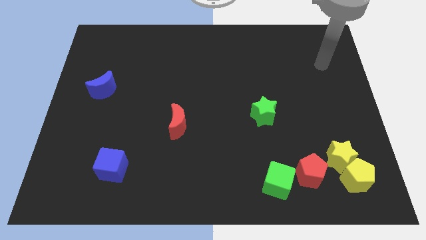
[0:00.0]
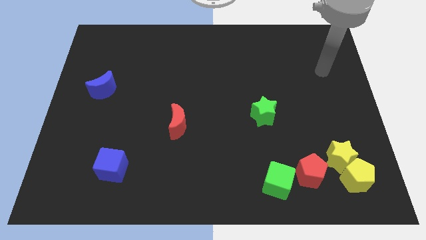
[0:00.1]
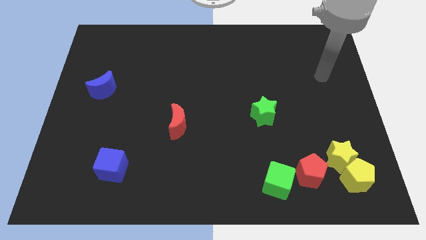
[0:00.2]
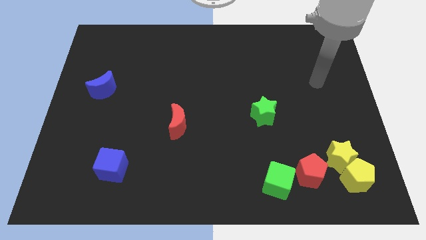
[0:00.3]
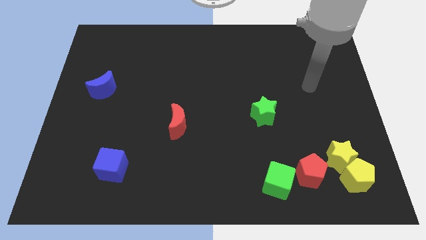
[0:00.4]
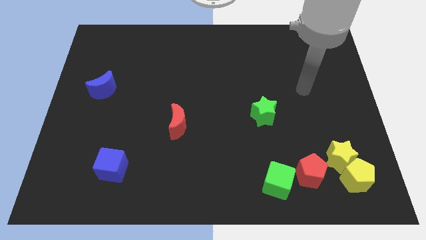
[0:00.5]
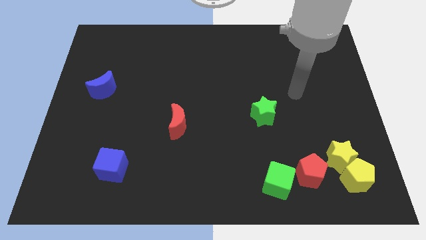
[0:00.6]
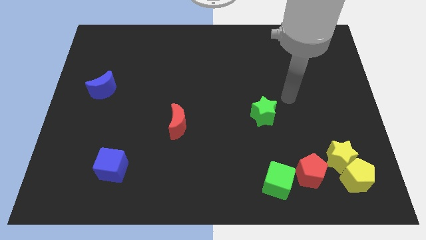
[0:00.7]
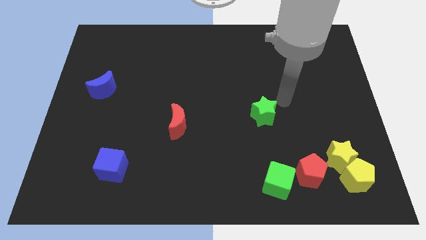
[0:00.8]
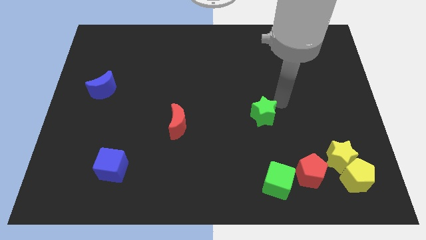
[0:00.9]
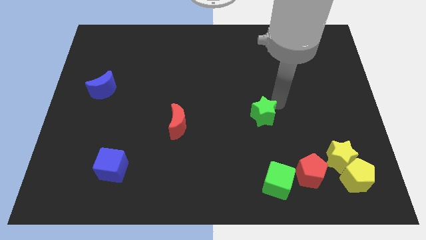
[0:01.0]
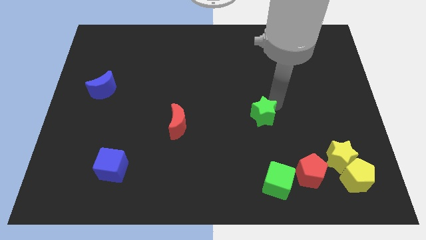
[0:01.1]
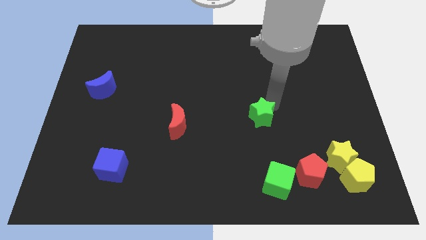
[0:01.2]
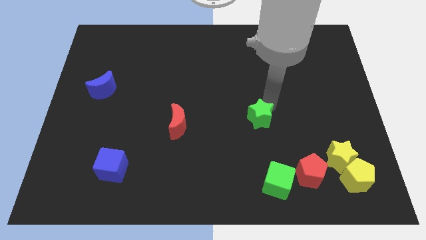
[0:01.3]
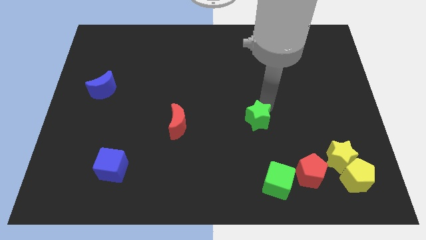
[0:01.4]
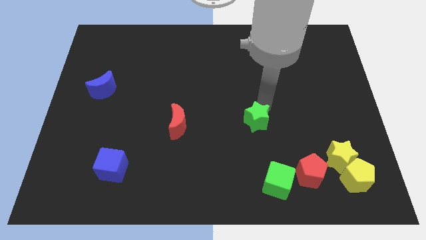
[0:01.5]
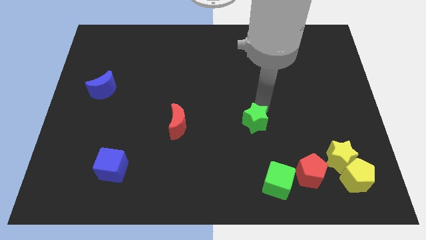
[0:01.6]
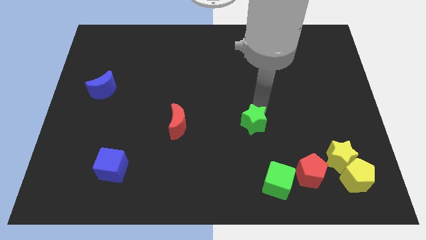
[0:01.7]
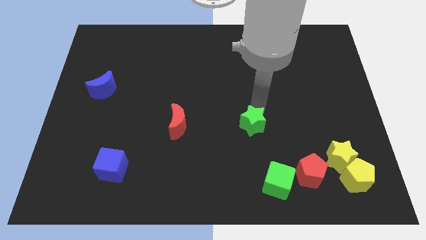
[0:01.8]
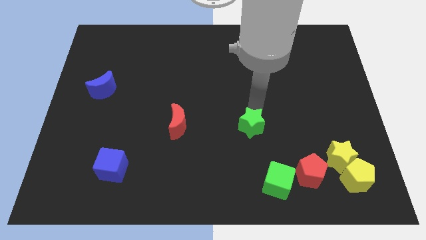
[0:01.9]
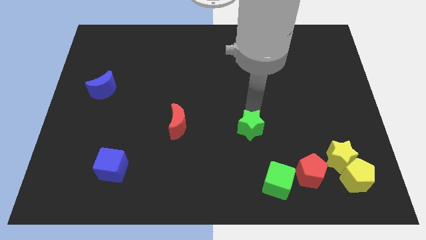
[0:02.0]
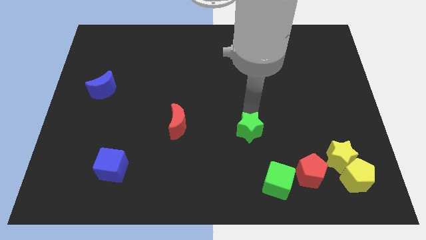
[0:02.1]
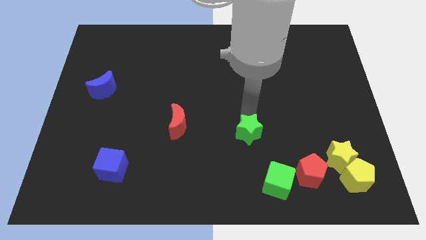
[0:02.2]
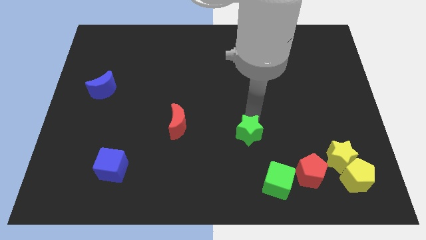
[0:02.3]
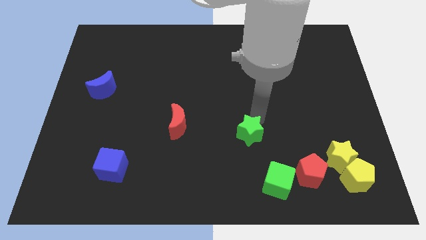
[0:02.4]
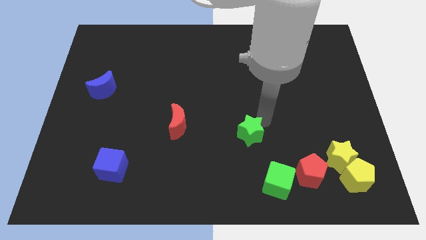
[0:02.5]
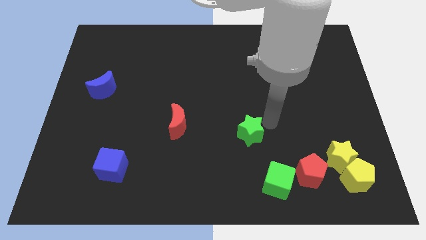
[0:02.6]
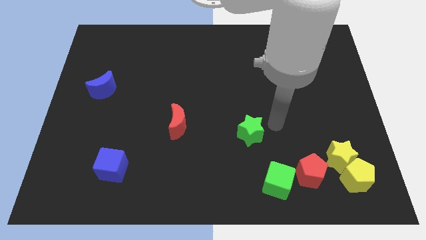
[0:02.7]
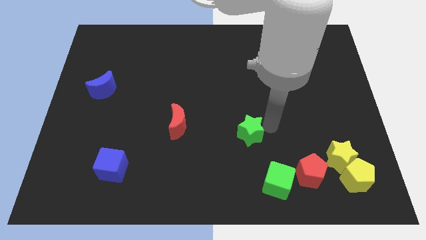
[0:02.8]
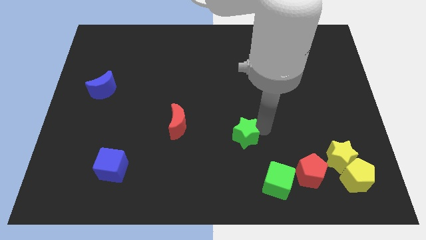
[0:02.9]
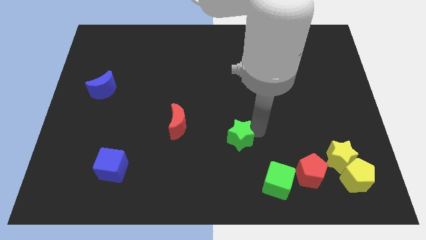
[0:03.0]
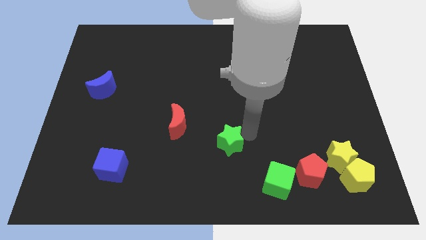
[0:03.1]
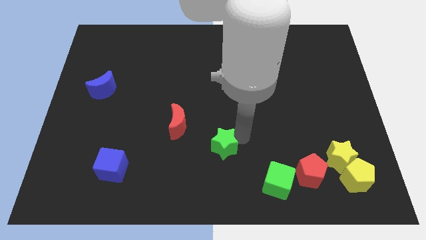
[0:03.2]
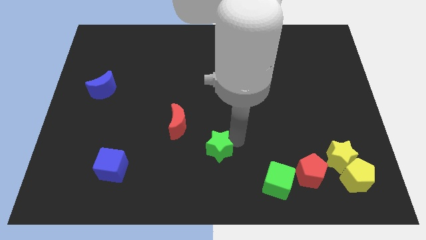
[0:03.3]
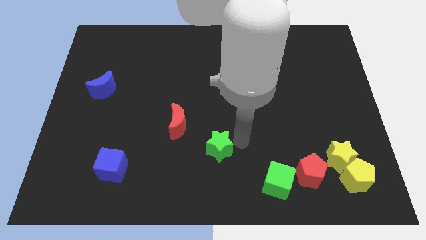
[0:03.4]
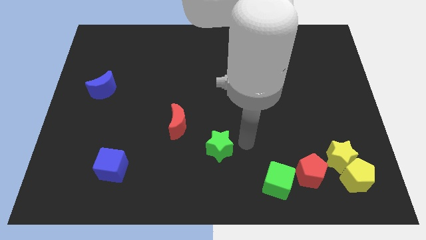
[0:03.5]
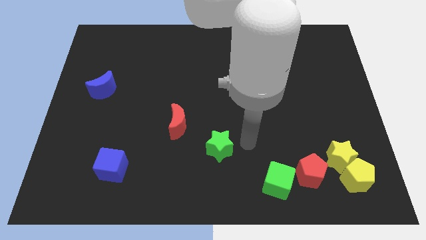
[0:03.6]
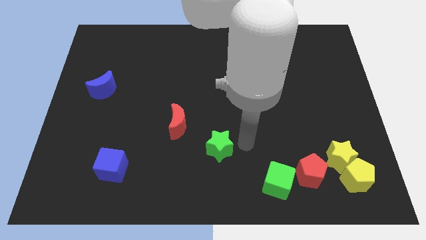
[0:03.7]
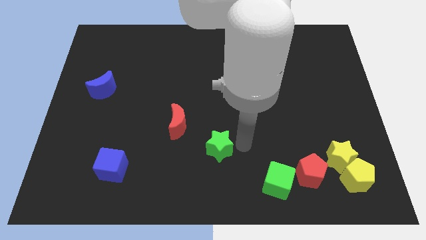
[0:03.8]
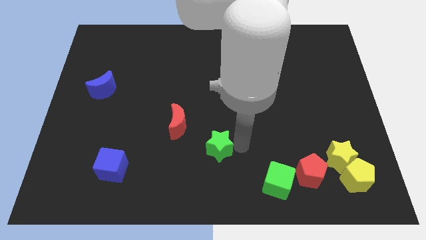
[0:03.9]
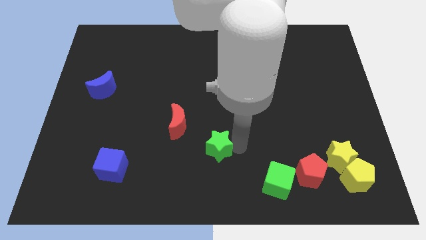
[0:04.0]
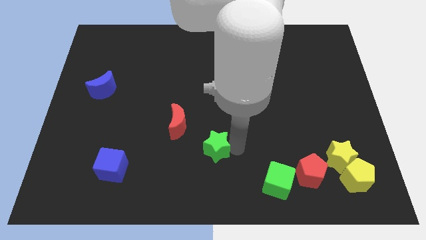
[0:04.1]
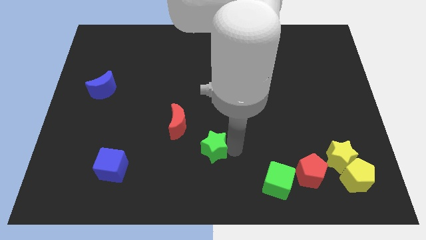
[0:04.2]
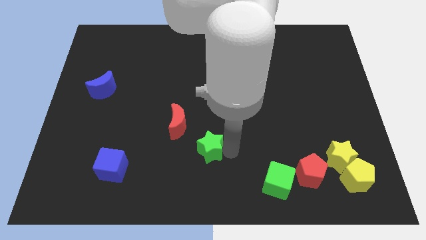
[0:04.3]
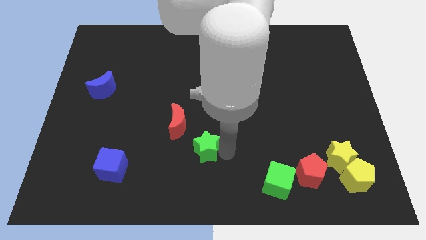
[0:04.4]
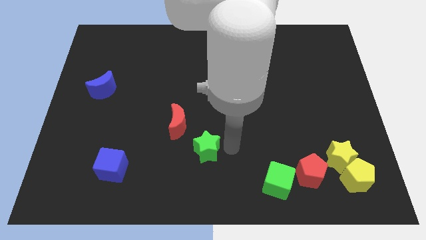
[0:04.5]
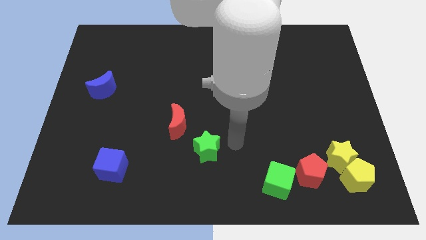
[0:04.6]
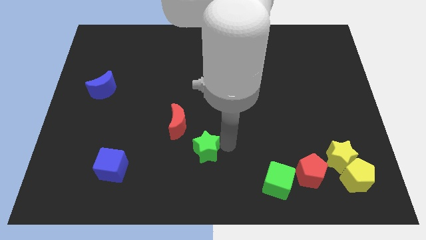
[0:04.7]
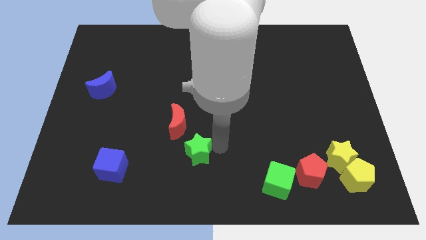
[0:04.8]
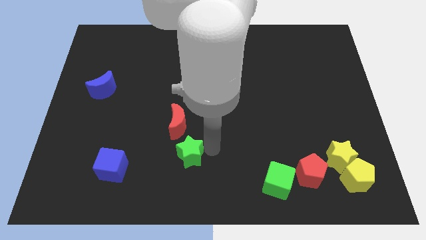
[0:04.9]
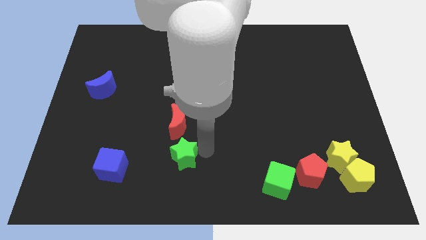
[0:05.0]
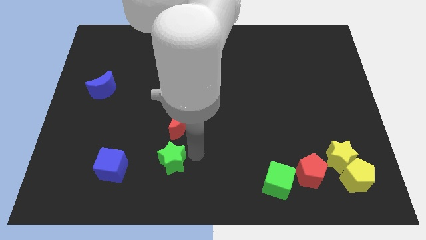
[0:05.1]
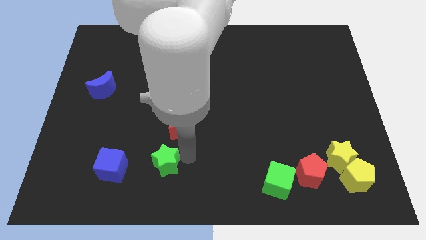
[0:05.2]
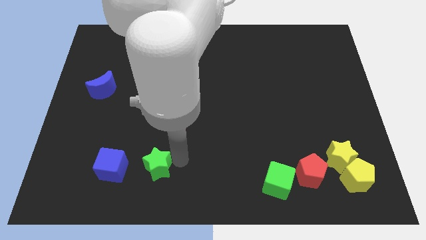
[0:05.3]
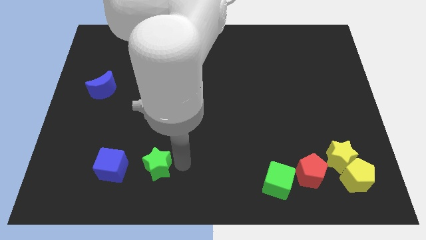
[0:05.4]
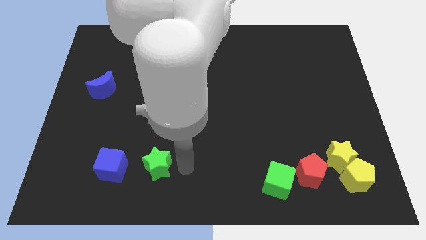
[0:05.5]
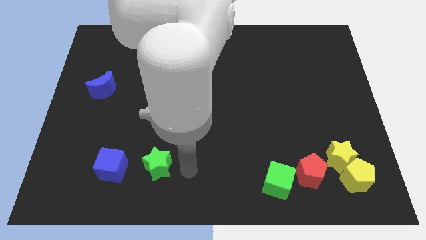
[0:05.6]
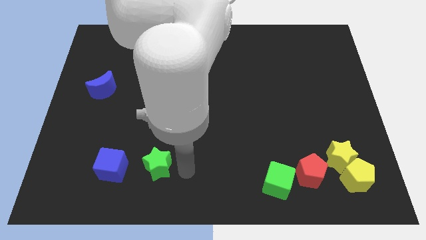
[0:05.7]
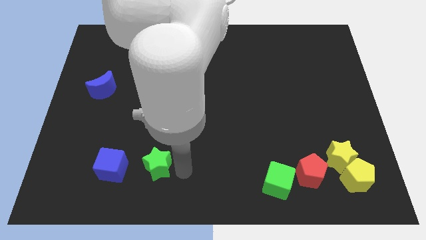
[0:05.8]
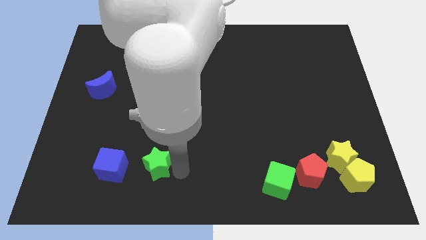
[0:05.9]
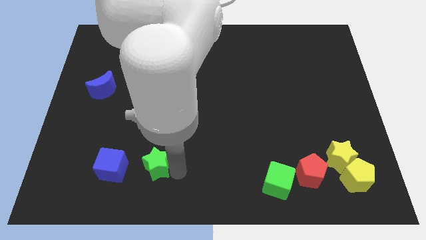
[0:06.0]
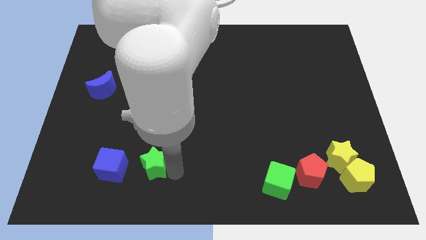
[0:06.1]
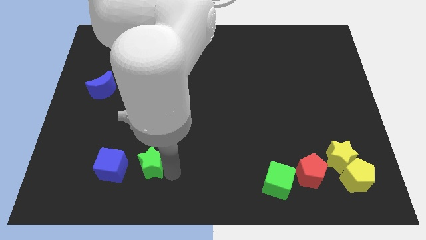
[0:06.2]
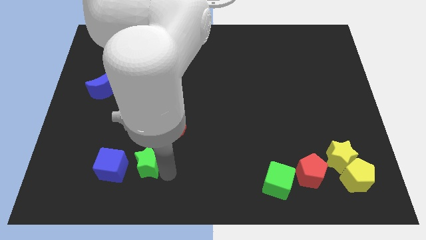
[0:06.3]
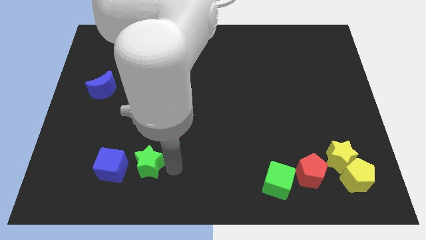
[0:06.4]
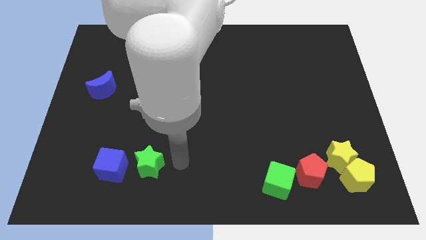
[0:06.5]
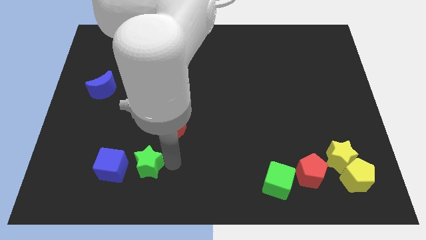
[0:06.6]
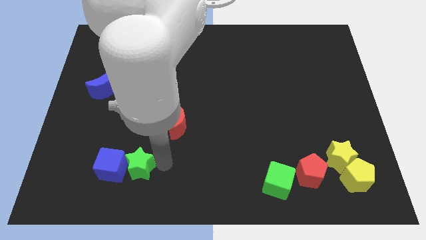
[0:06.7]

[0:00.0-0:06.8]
move the green star next to the blue cube
